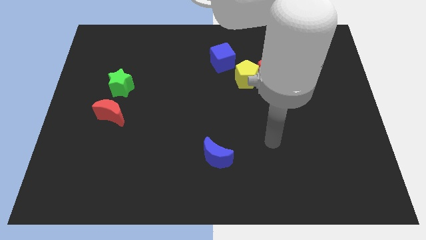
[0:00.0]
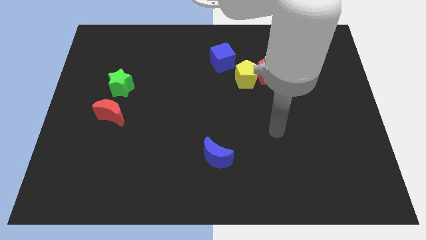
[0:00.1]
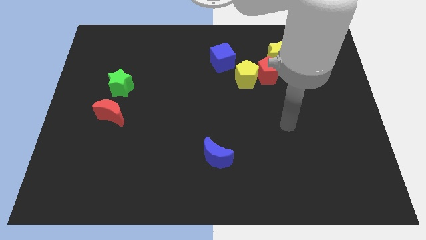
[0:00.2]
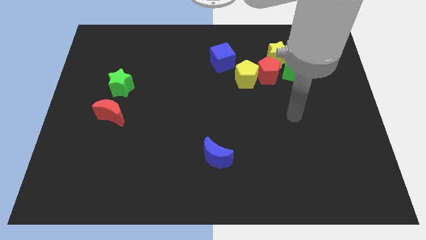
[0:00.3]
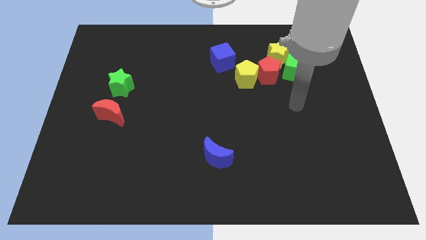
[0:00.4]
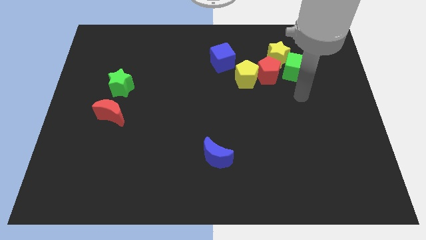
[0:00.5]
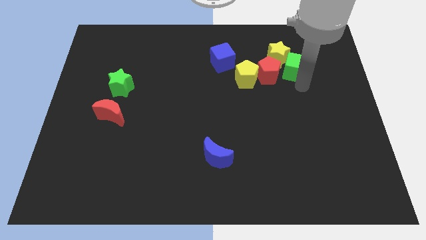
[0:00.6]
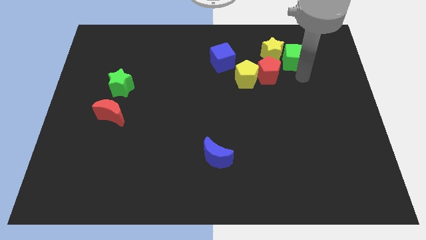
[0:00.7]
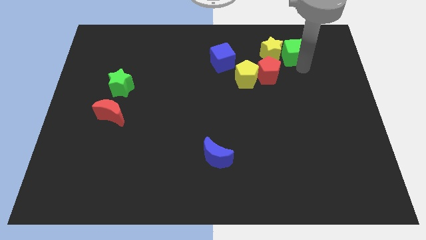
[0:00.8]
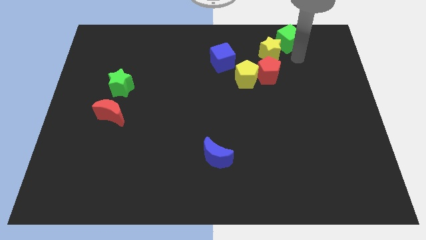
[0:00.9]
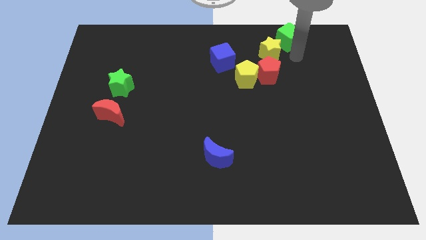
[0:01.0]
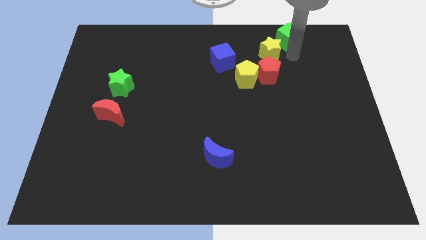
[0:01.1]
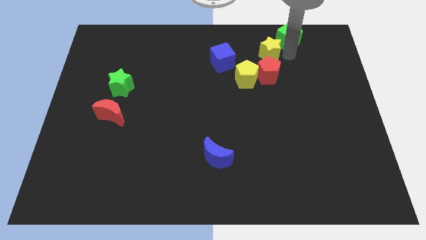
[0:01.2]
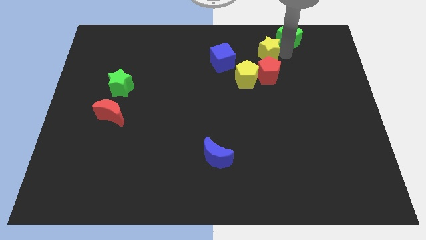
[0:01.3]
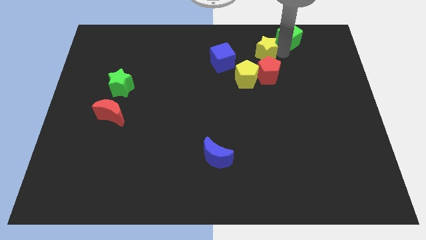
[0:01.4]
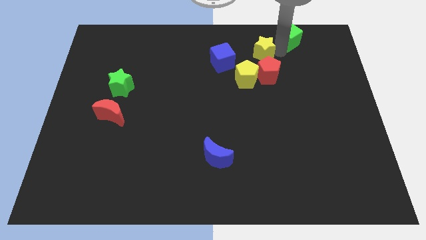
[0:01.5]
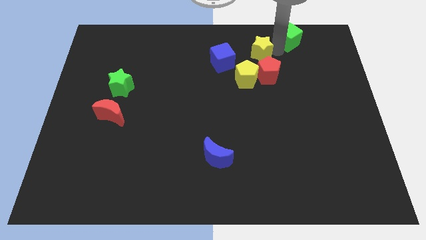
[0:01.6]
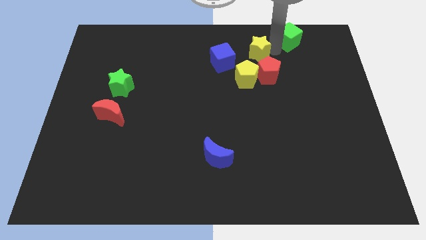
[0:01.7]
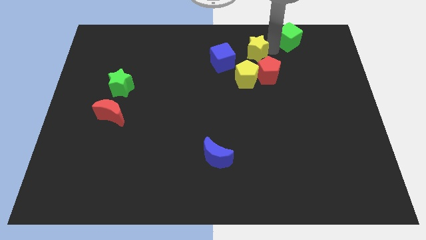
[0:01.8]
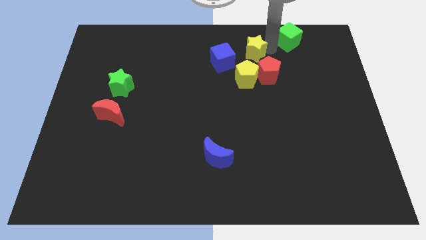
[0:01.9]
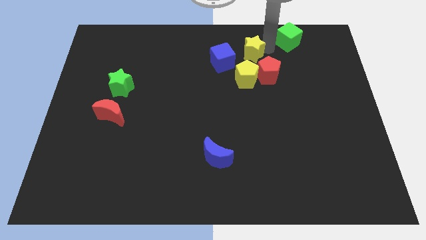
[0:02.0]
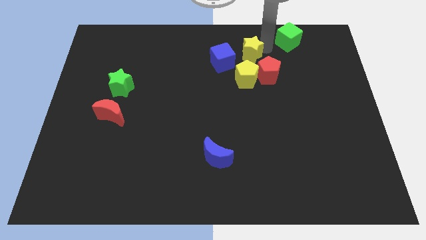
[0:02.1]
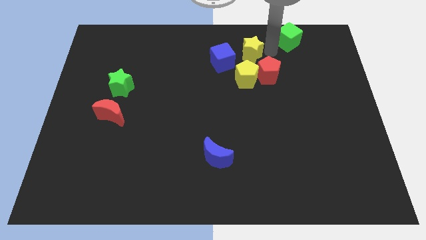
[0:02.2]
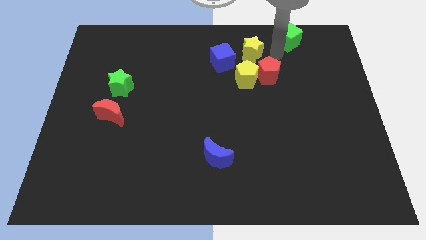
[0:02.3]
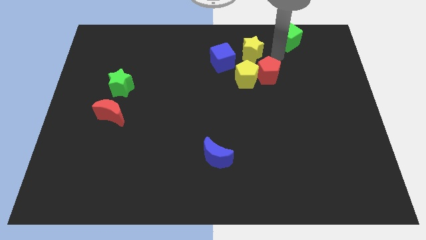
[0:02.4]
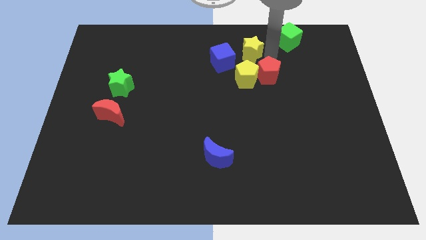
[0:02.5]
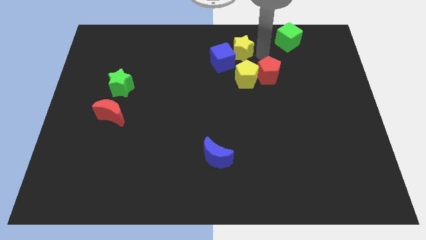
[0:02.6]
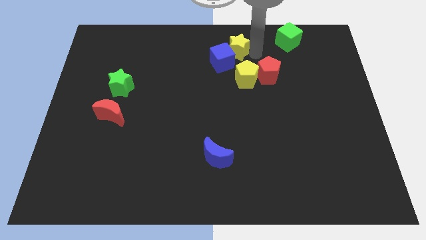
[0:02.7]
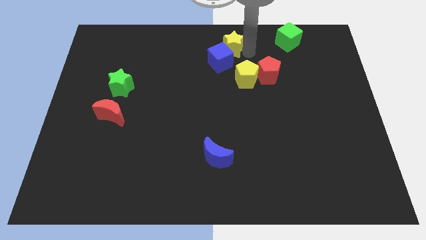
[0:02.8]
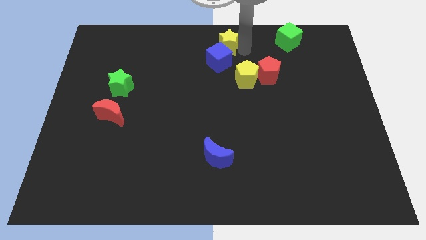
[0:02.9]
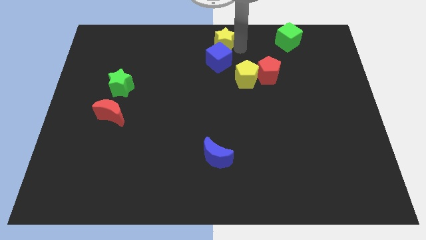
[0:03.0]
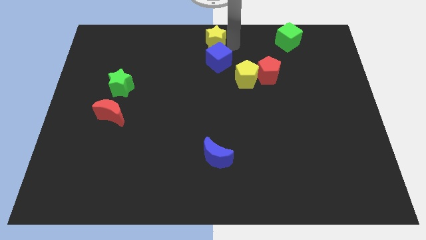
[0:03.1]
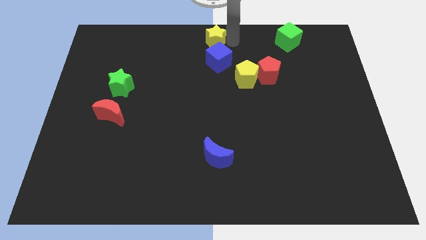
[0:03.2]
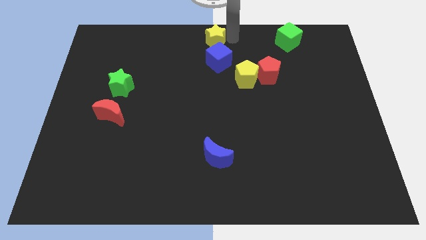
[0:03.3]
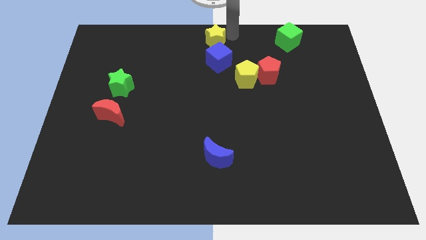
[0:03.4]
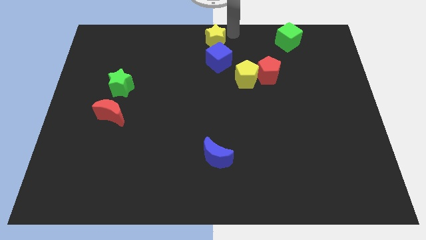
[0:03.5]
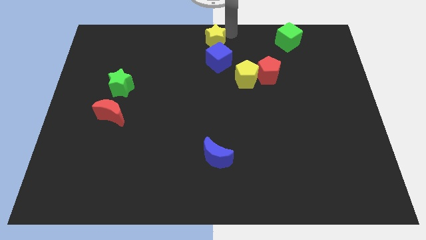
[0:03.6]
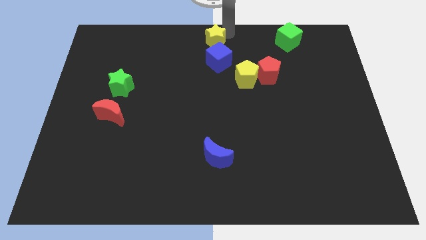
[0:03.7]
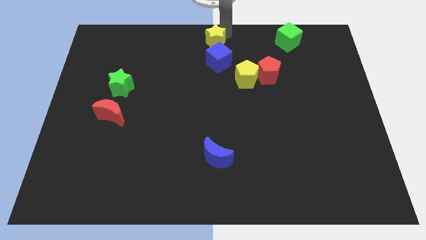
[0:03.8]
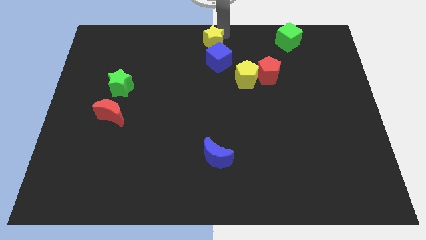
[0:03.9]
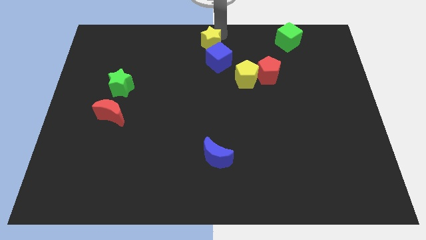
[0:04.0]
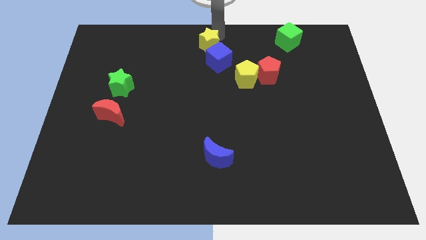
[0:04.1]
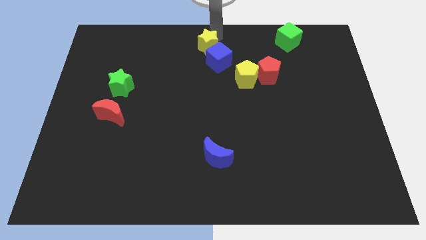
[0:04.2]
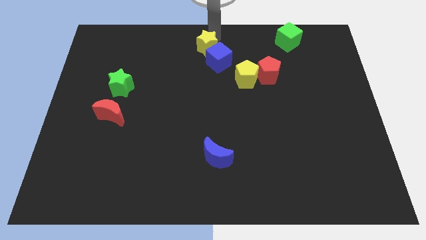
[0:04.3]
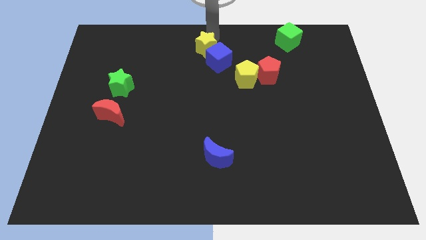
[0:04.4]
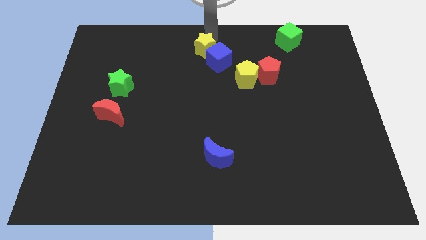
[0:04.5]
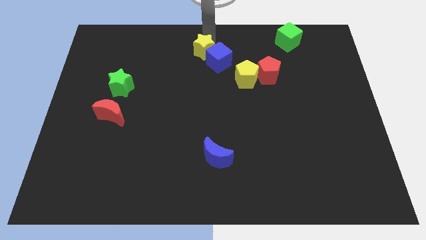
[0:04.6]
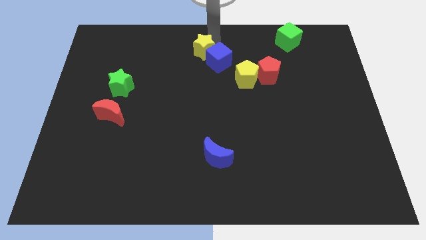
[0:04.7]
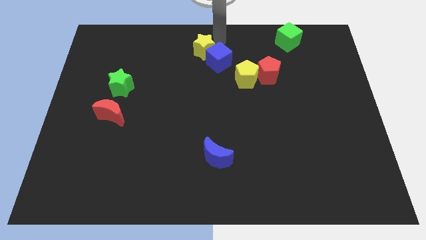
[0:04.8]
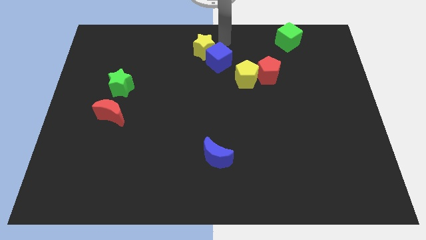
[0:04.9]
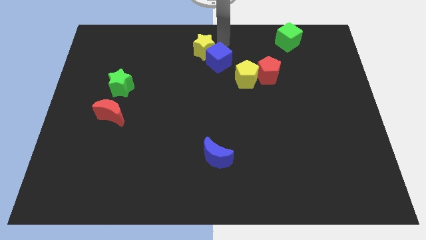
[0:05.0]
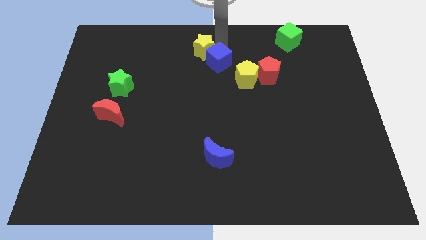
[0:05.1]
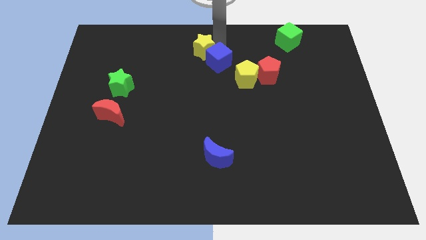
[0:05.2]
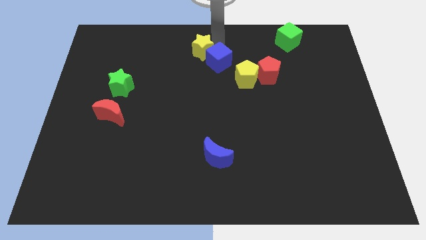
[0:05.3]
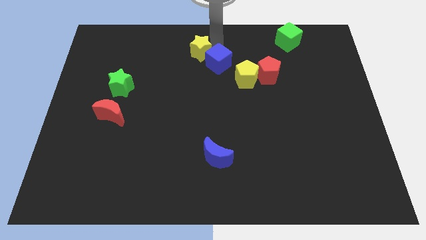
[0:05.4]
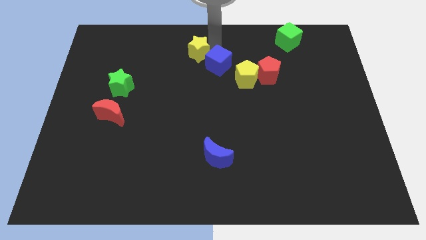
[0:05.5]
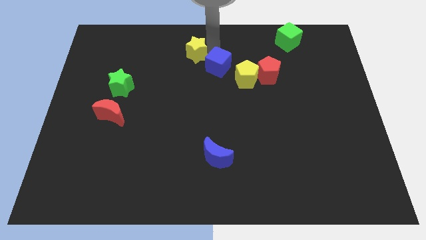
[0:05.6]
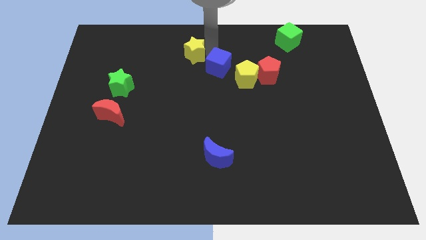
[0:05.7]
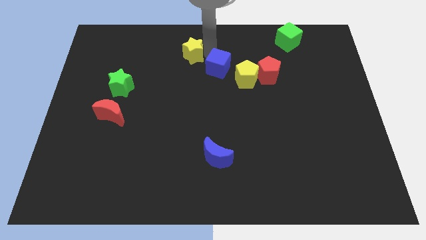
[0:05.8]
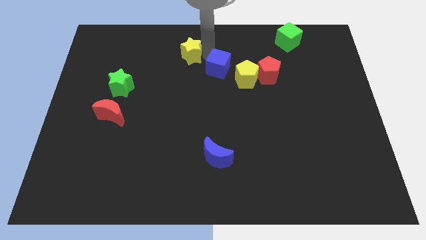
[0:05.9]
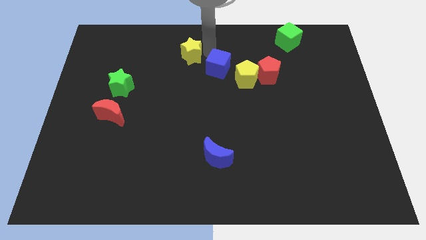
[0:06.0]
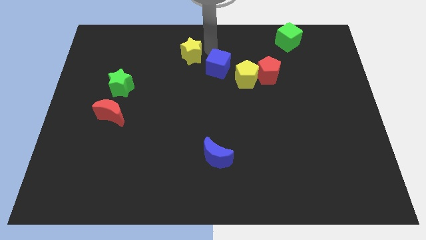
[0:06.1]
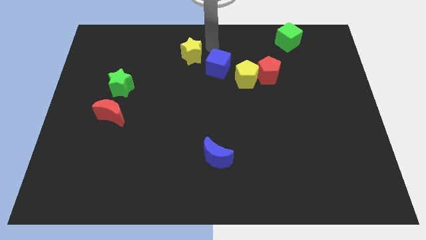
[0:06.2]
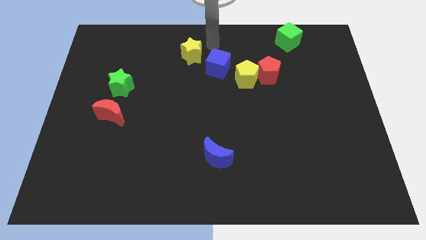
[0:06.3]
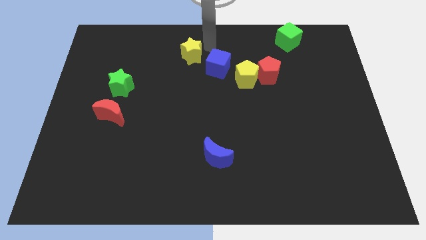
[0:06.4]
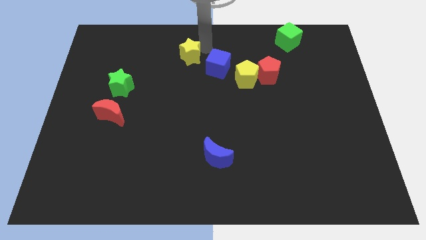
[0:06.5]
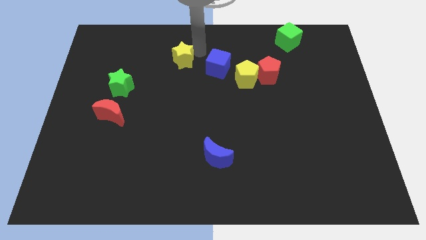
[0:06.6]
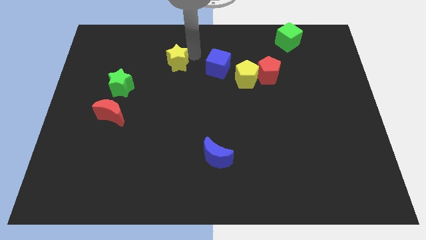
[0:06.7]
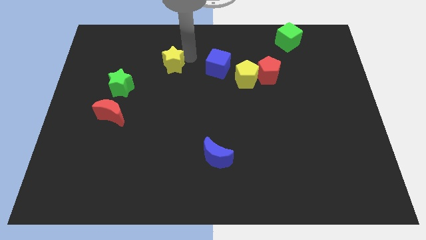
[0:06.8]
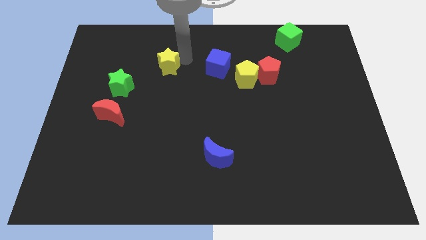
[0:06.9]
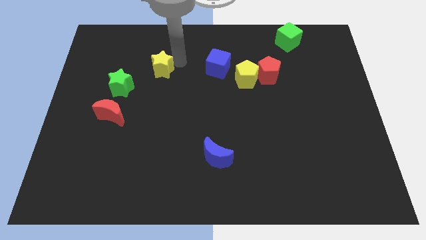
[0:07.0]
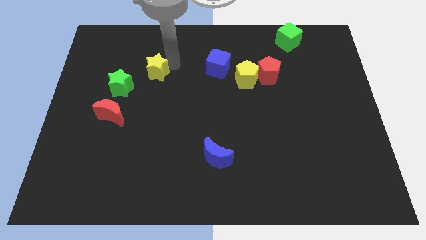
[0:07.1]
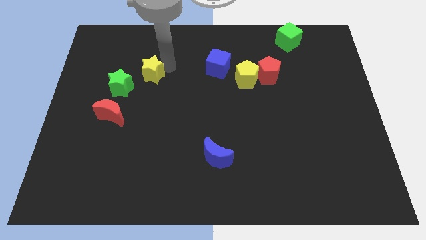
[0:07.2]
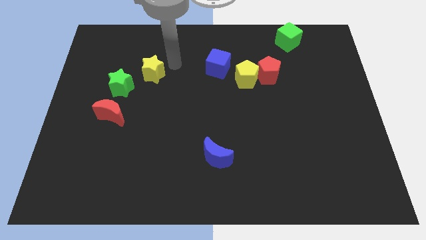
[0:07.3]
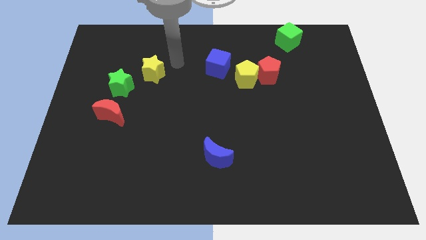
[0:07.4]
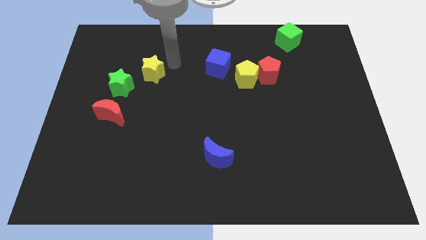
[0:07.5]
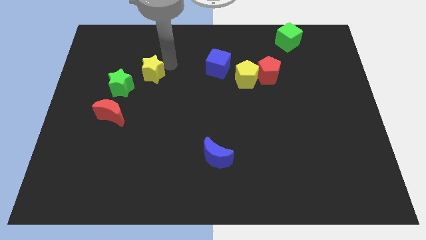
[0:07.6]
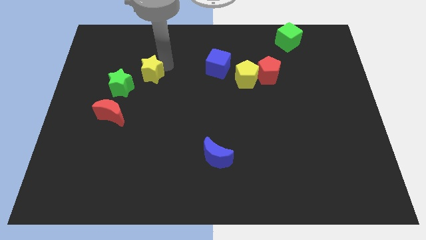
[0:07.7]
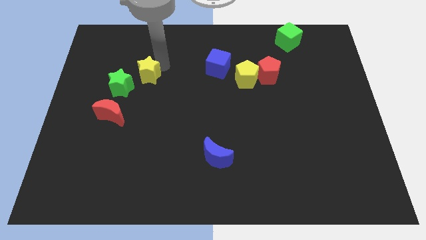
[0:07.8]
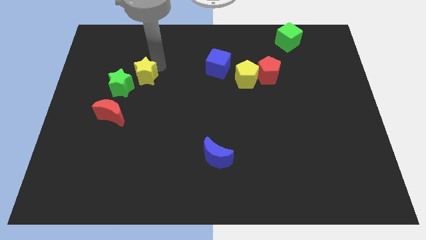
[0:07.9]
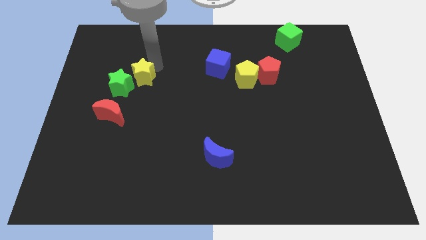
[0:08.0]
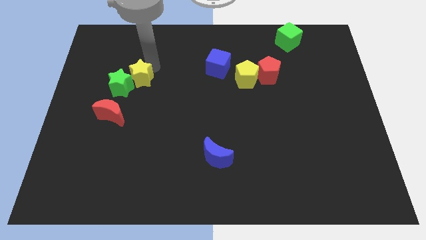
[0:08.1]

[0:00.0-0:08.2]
move the yellow star next to the green star
